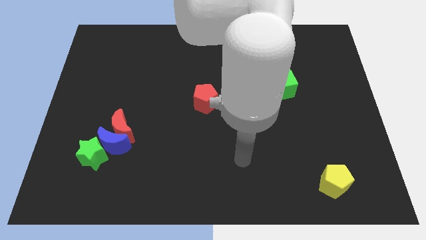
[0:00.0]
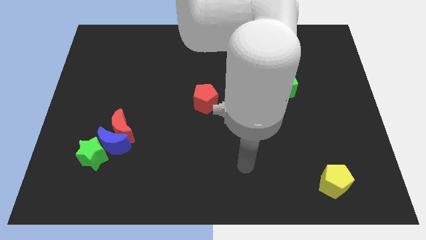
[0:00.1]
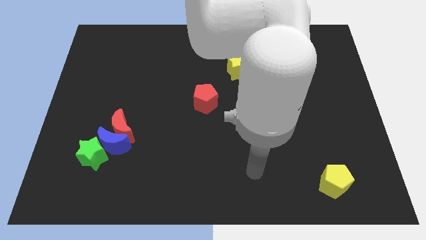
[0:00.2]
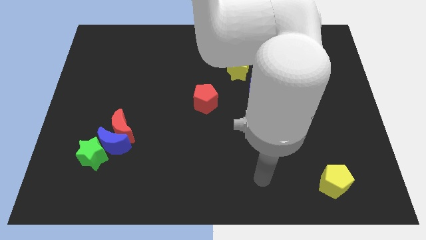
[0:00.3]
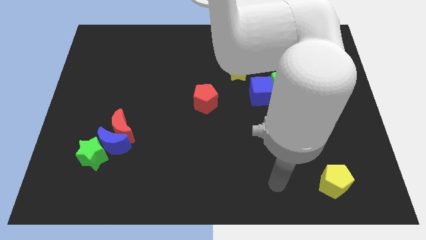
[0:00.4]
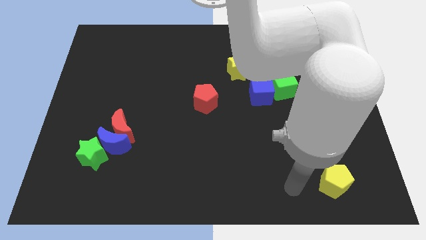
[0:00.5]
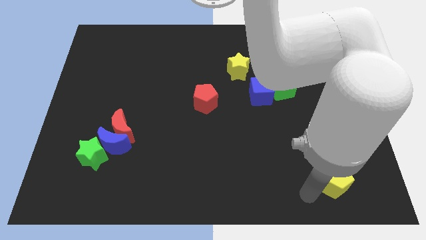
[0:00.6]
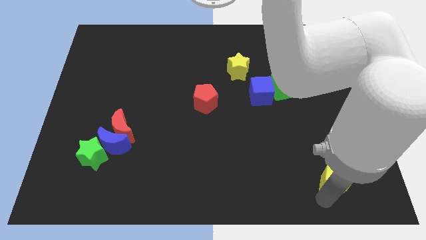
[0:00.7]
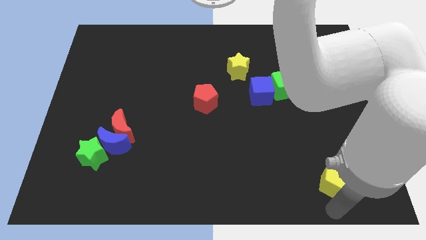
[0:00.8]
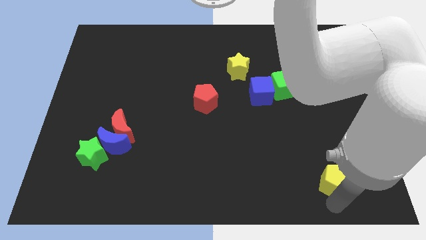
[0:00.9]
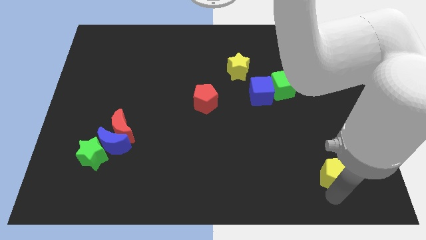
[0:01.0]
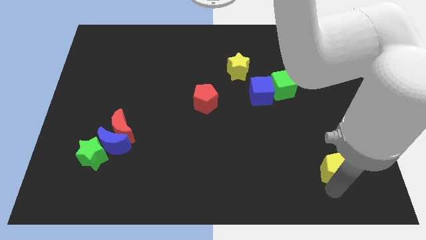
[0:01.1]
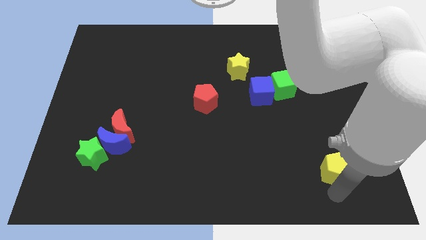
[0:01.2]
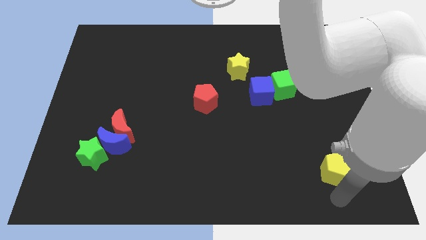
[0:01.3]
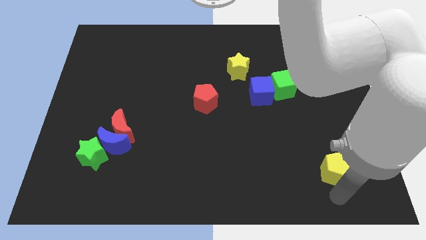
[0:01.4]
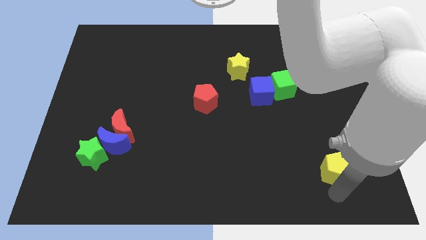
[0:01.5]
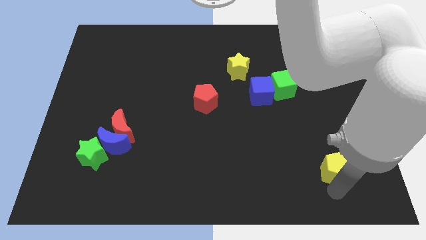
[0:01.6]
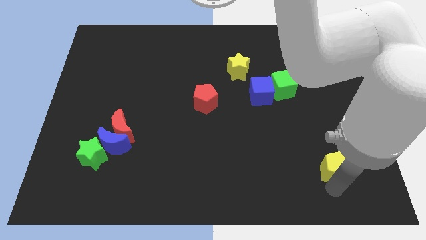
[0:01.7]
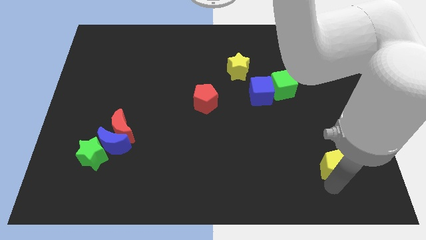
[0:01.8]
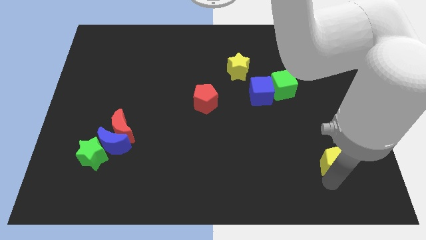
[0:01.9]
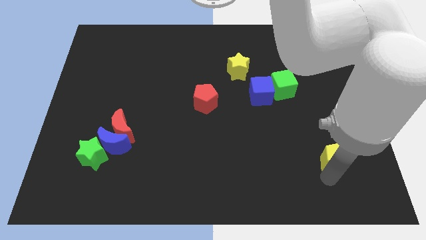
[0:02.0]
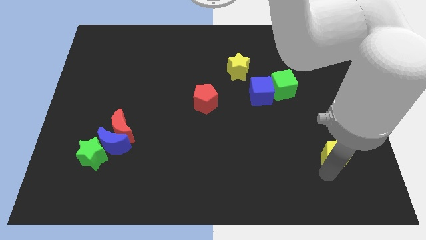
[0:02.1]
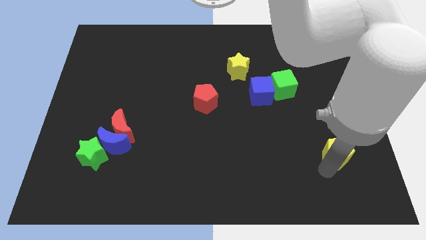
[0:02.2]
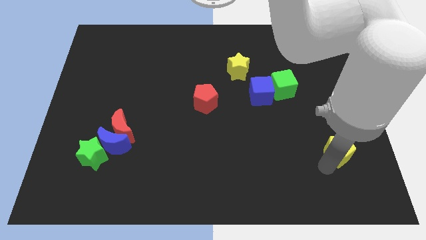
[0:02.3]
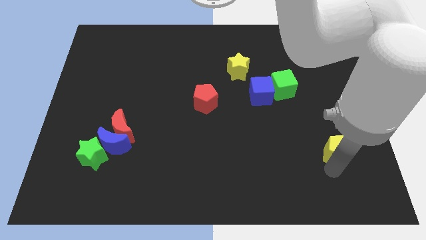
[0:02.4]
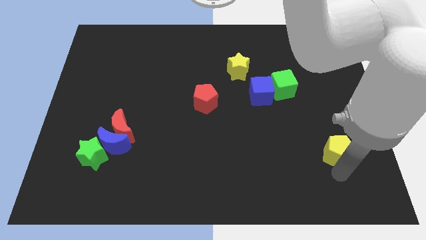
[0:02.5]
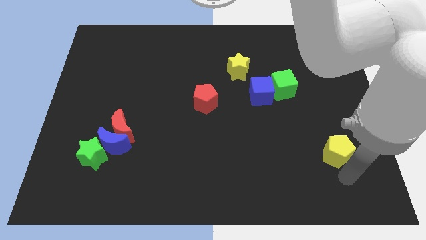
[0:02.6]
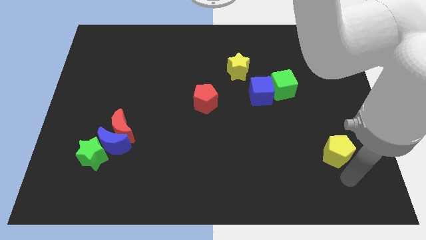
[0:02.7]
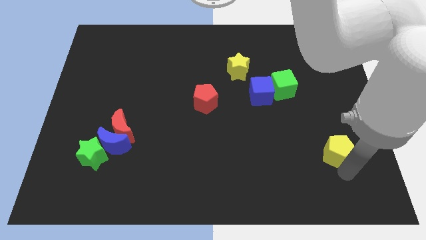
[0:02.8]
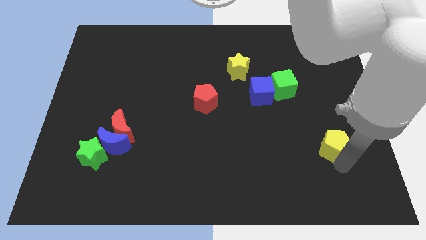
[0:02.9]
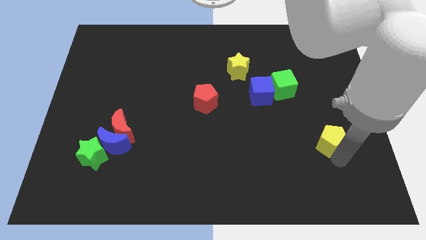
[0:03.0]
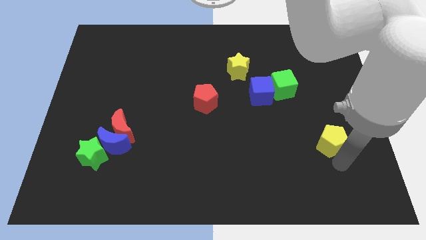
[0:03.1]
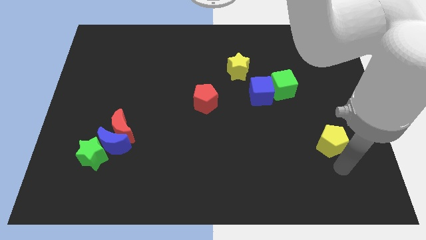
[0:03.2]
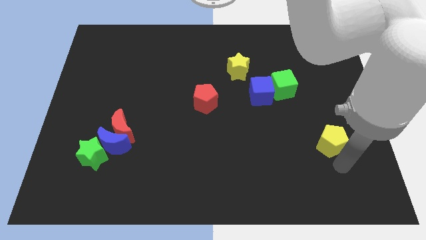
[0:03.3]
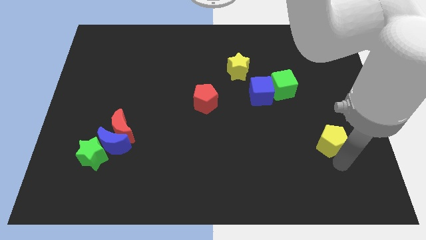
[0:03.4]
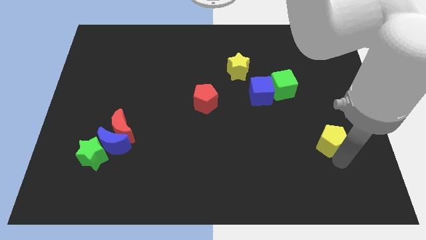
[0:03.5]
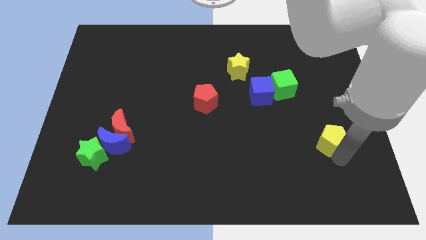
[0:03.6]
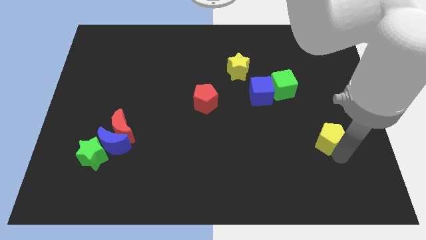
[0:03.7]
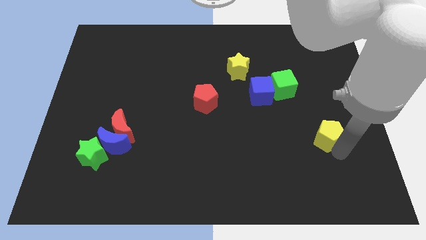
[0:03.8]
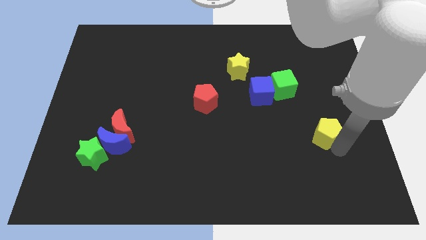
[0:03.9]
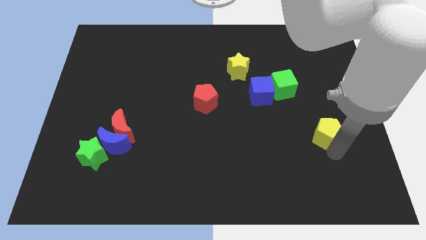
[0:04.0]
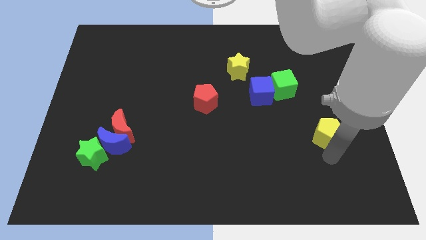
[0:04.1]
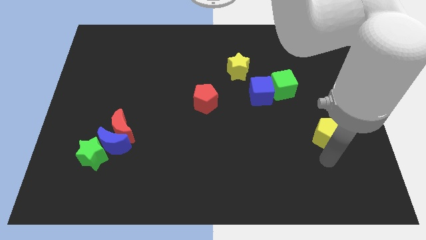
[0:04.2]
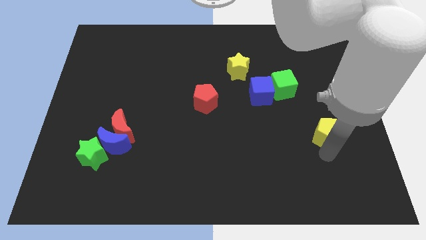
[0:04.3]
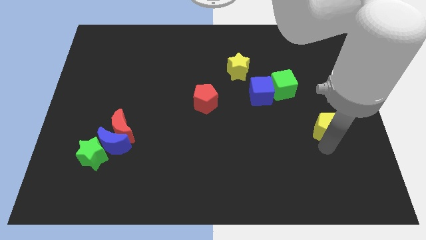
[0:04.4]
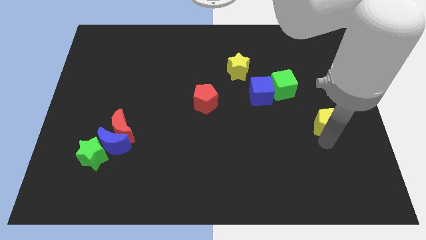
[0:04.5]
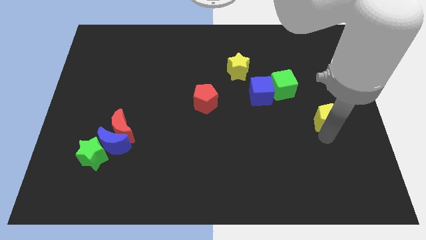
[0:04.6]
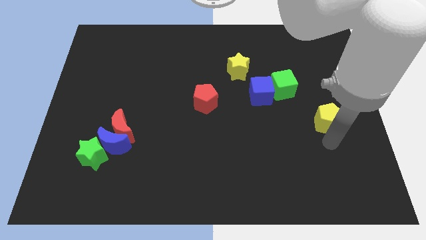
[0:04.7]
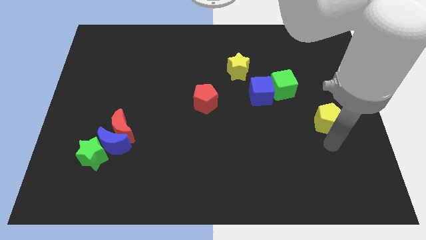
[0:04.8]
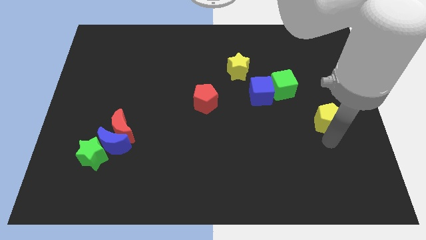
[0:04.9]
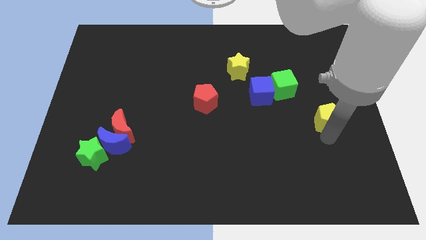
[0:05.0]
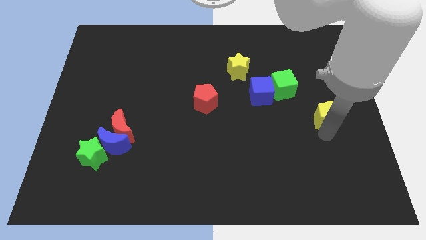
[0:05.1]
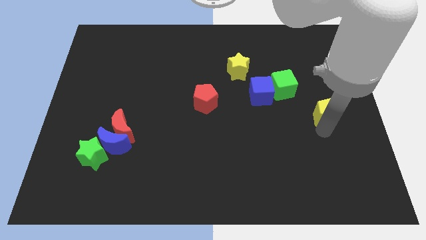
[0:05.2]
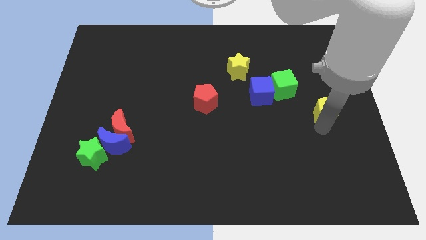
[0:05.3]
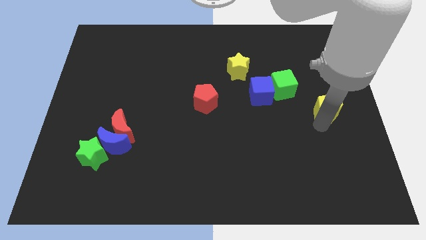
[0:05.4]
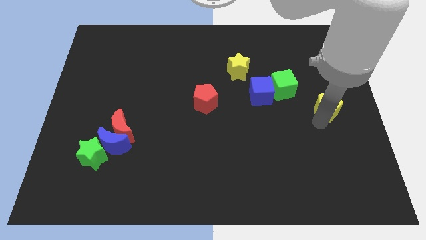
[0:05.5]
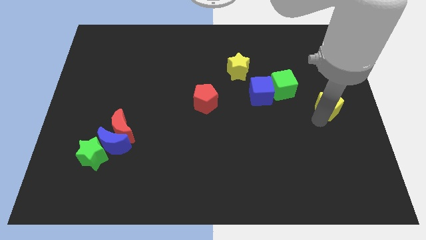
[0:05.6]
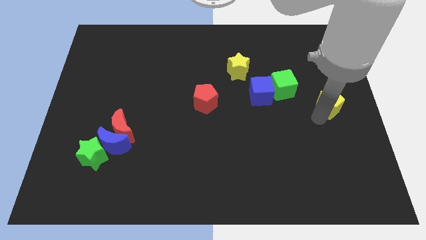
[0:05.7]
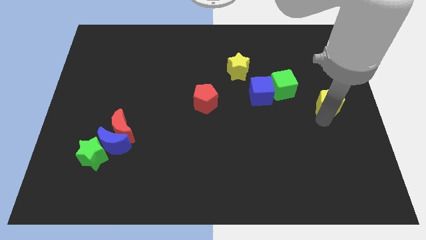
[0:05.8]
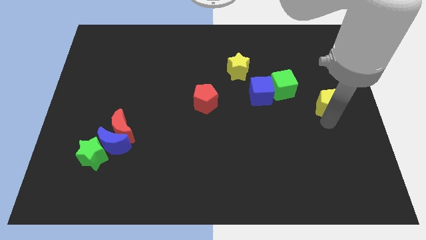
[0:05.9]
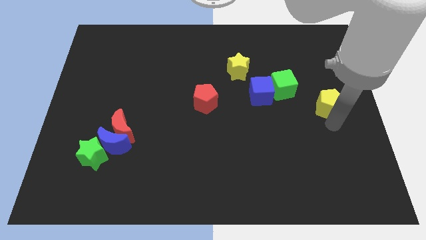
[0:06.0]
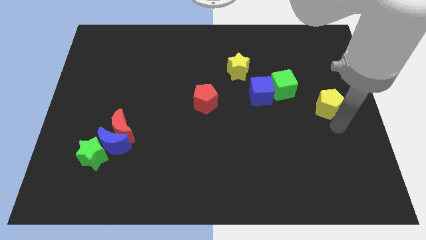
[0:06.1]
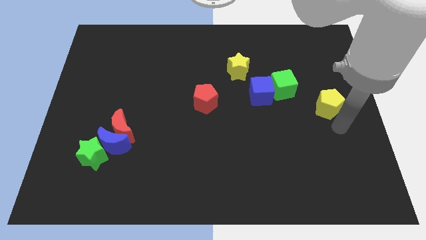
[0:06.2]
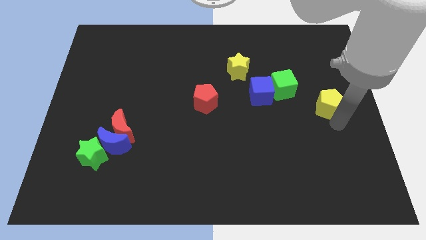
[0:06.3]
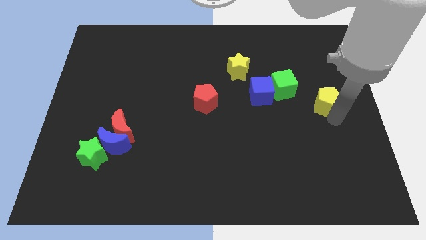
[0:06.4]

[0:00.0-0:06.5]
slide the yellow pentagon upwards

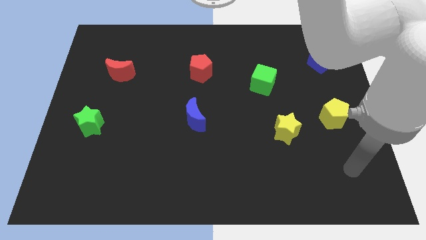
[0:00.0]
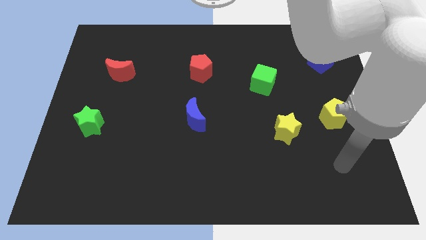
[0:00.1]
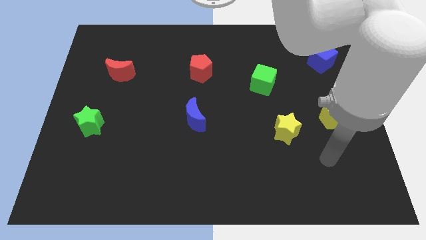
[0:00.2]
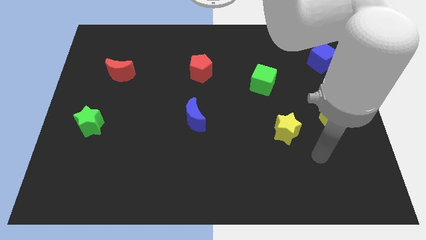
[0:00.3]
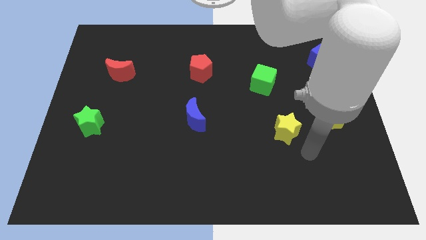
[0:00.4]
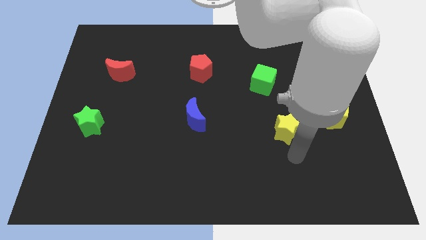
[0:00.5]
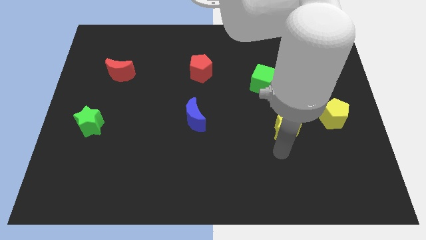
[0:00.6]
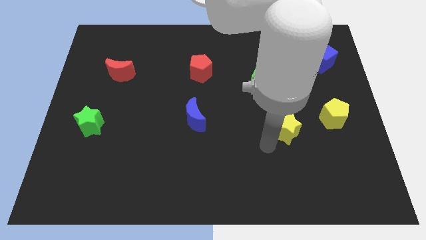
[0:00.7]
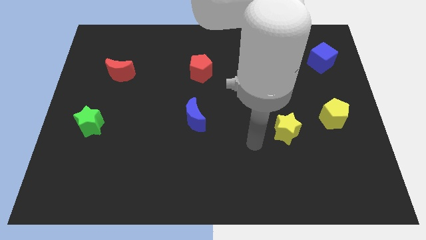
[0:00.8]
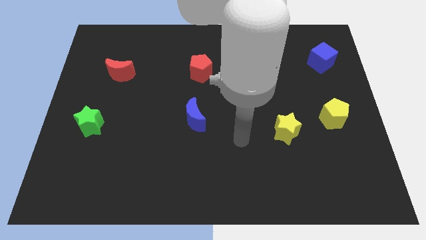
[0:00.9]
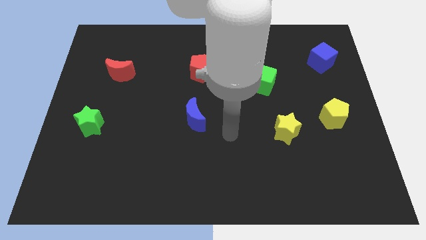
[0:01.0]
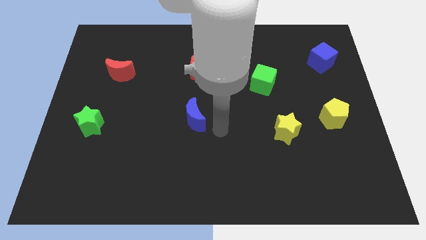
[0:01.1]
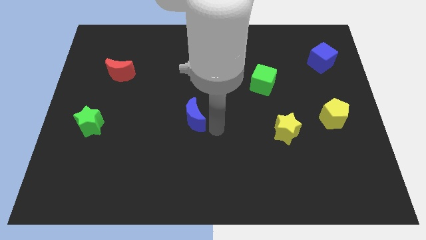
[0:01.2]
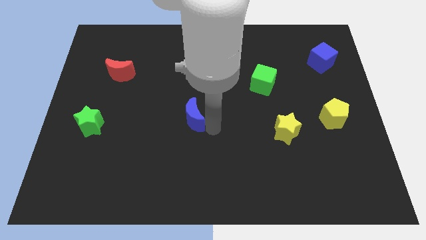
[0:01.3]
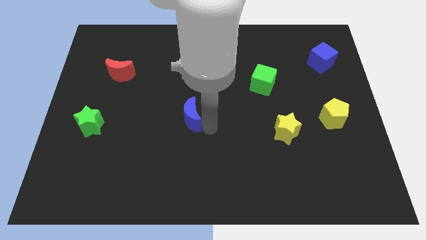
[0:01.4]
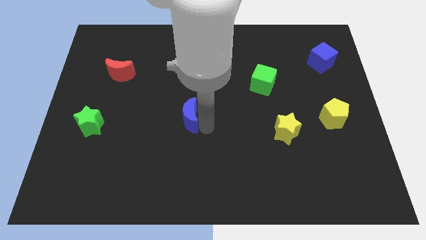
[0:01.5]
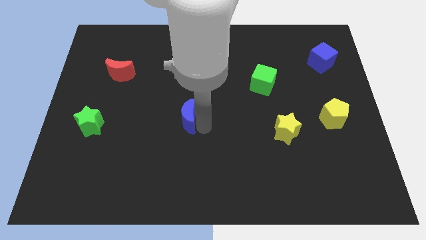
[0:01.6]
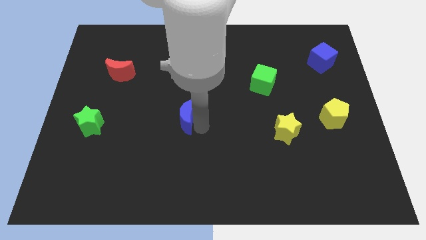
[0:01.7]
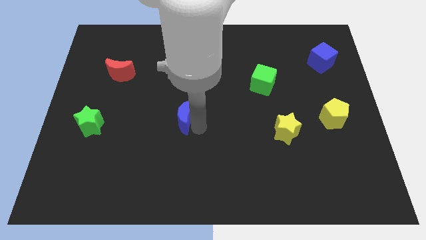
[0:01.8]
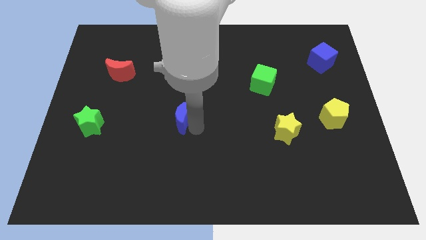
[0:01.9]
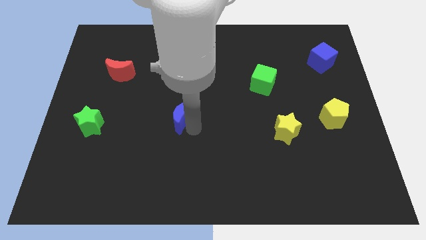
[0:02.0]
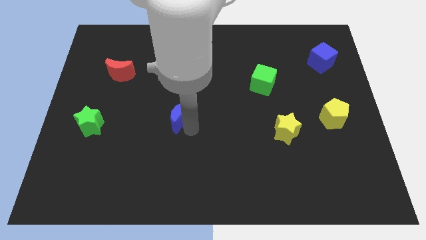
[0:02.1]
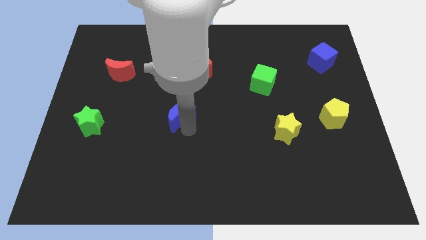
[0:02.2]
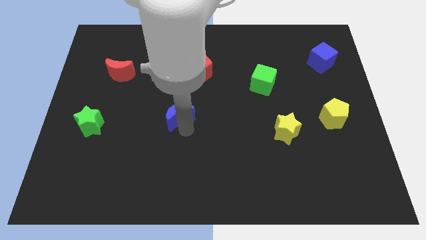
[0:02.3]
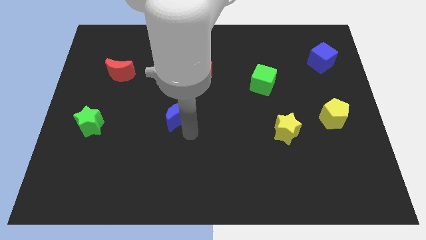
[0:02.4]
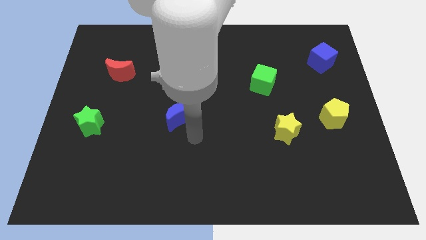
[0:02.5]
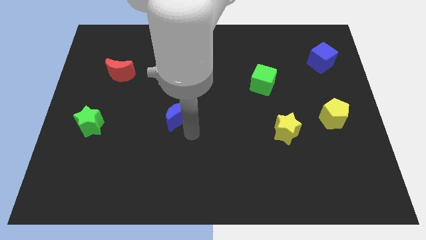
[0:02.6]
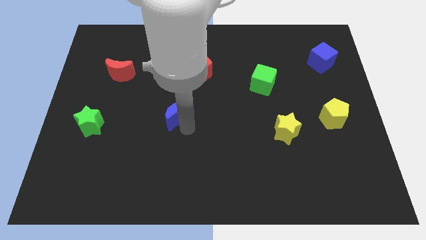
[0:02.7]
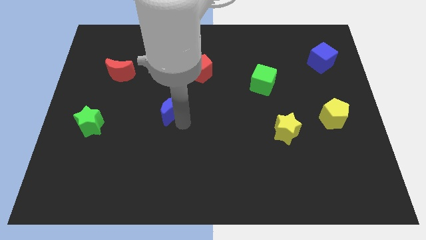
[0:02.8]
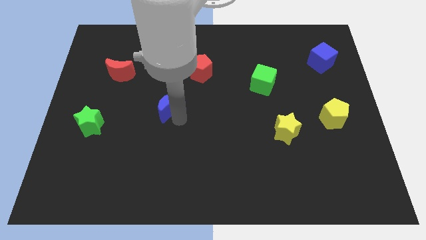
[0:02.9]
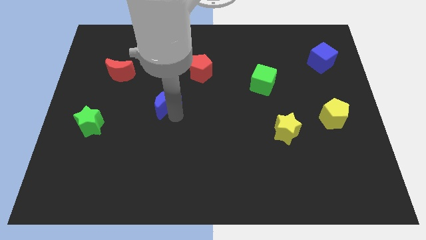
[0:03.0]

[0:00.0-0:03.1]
slightly move the blue moon up and to the left
